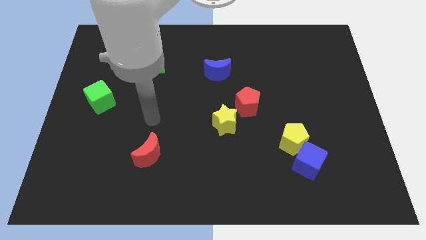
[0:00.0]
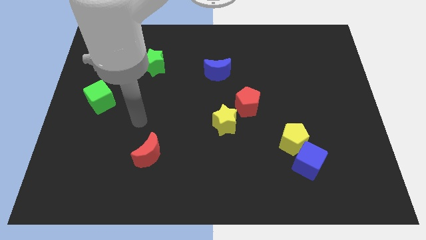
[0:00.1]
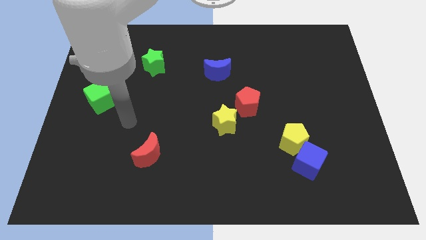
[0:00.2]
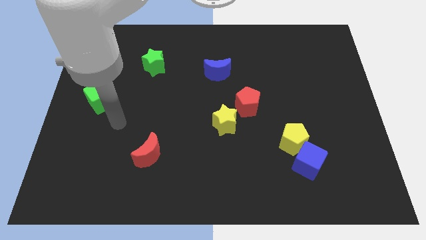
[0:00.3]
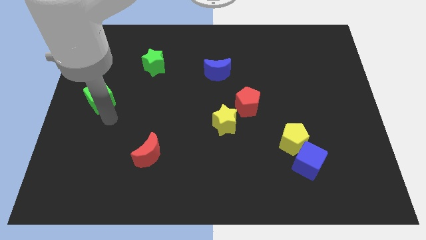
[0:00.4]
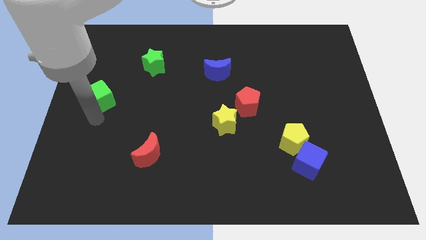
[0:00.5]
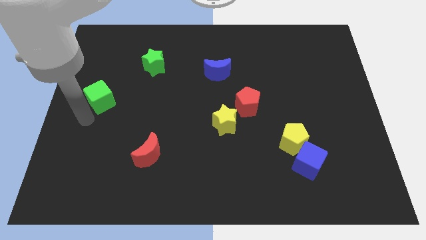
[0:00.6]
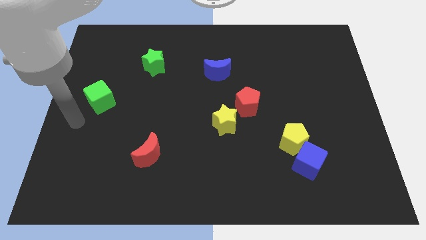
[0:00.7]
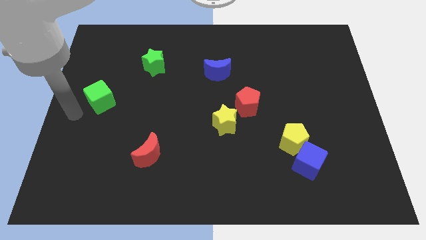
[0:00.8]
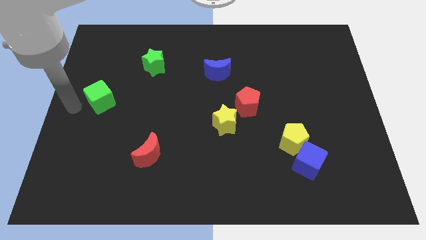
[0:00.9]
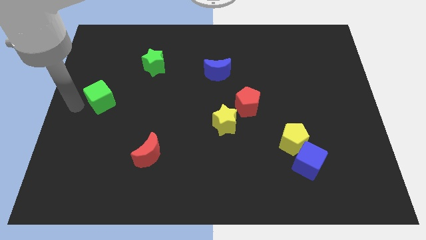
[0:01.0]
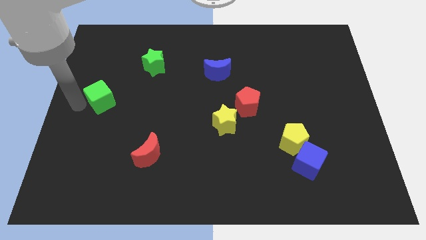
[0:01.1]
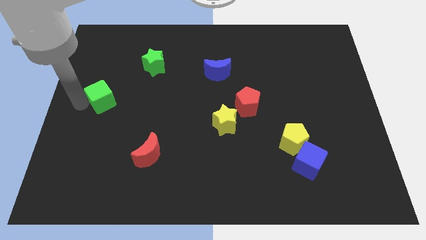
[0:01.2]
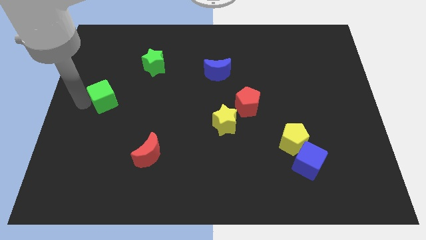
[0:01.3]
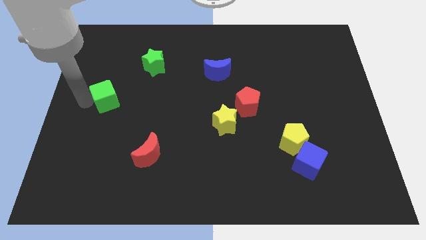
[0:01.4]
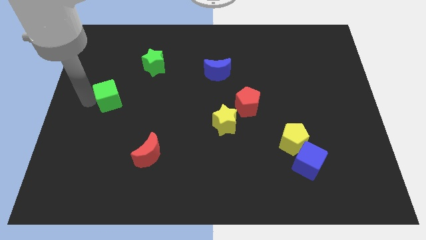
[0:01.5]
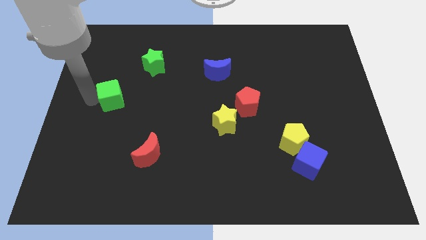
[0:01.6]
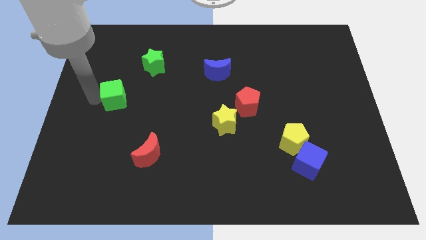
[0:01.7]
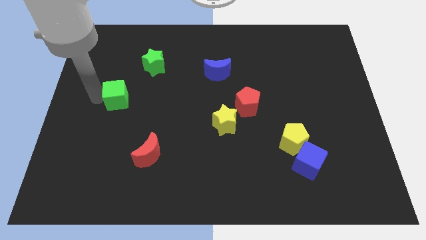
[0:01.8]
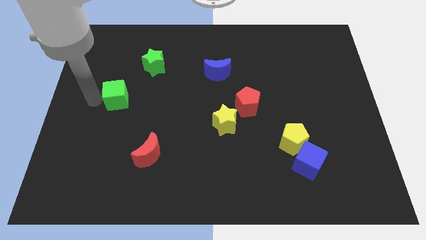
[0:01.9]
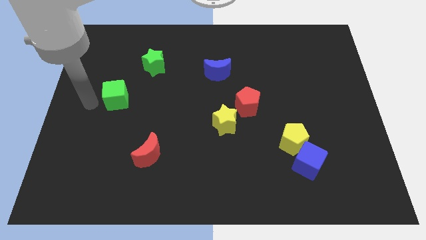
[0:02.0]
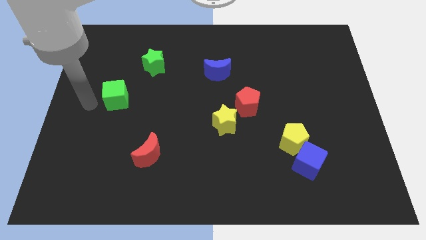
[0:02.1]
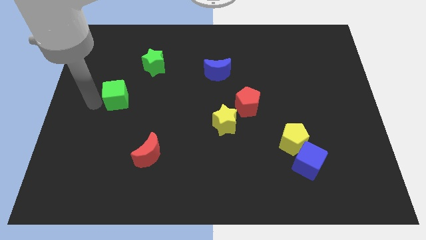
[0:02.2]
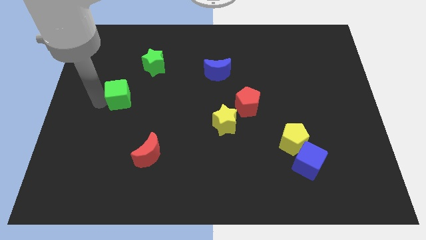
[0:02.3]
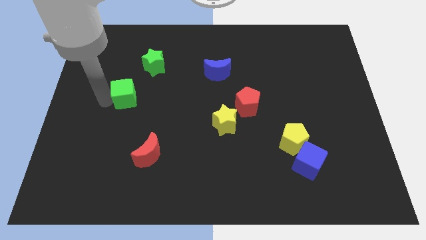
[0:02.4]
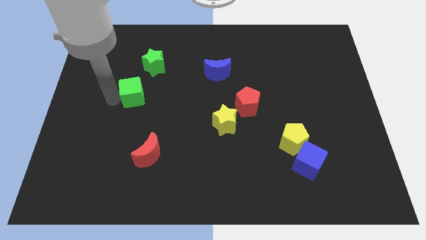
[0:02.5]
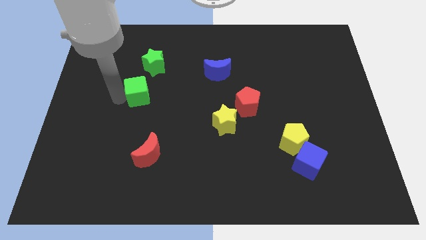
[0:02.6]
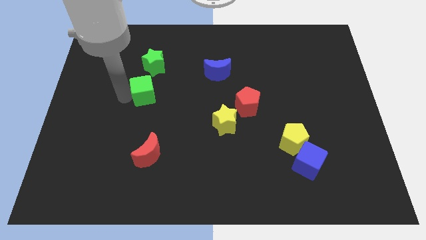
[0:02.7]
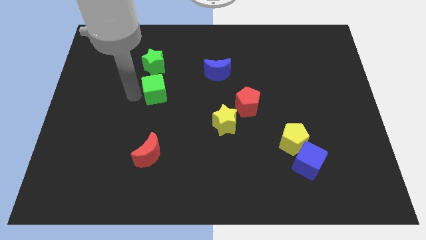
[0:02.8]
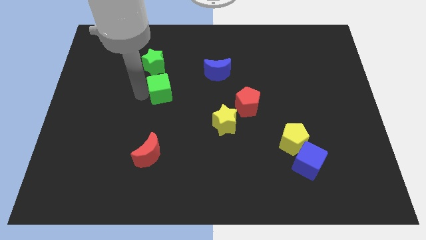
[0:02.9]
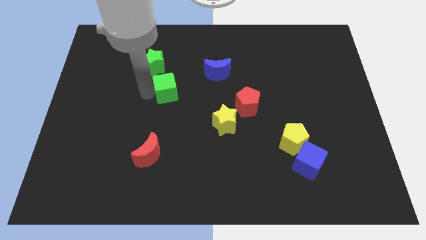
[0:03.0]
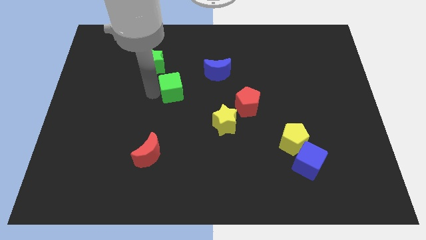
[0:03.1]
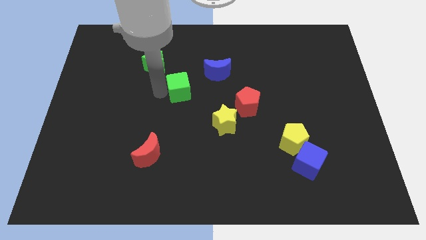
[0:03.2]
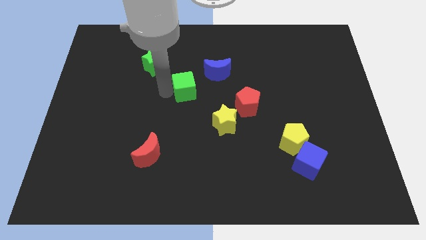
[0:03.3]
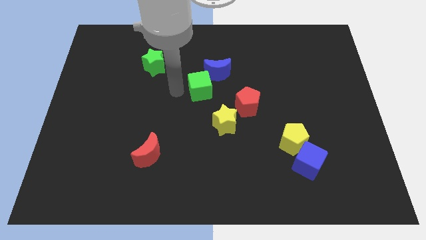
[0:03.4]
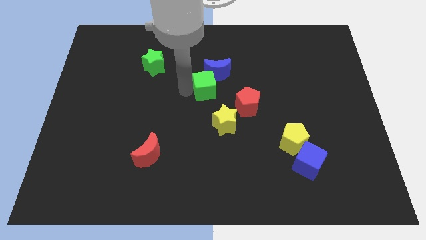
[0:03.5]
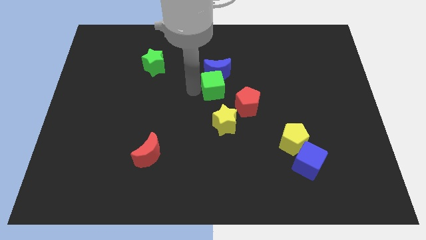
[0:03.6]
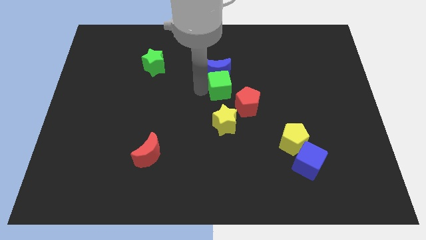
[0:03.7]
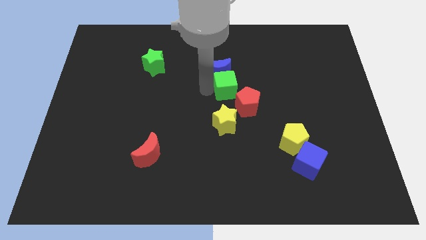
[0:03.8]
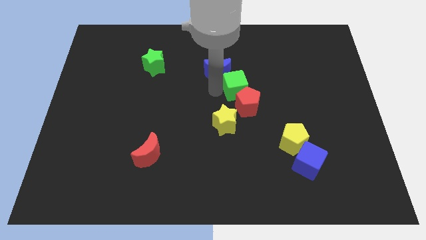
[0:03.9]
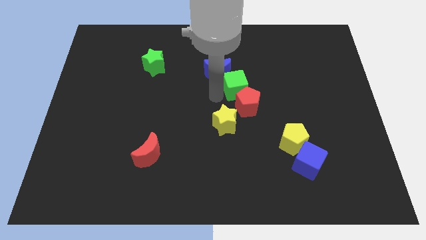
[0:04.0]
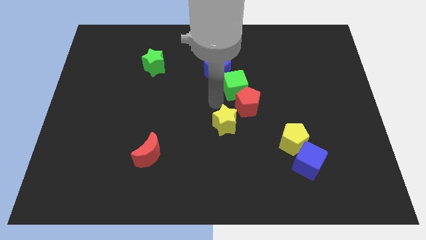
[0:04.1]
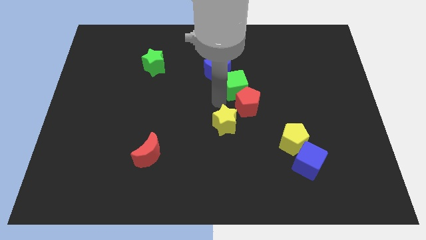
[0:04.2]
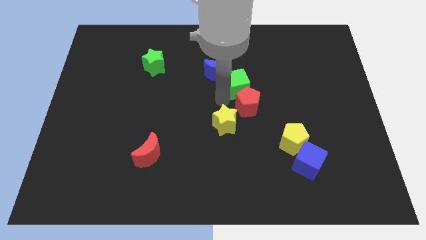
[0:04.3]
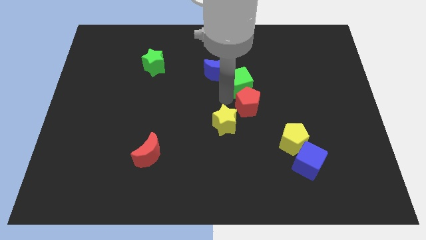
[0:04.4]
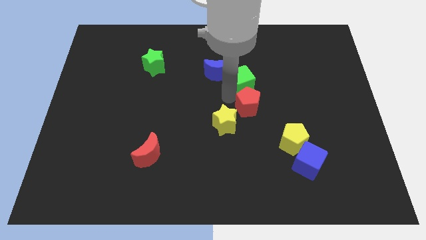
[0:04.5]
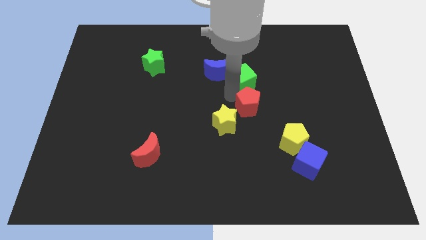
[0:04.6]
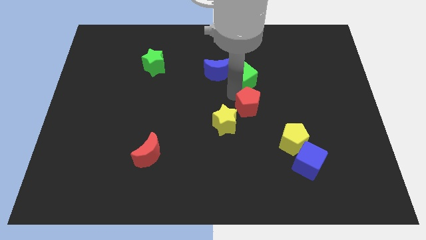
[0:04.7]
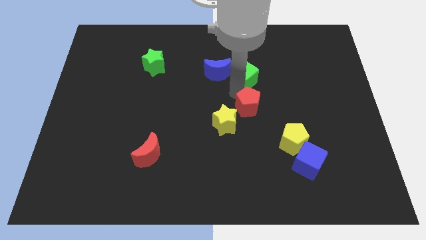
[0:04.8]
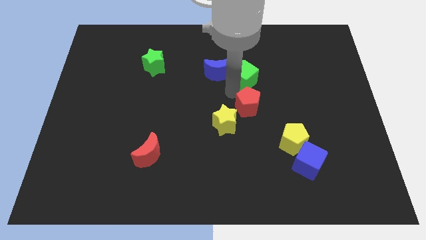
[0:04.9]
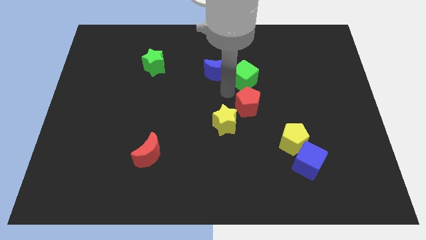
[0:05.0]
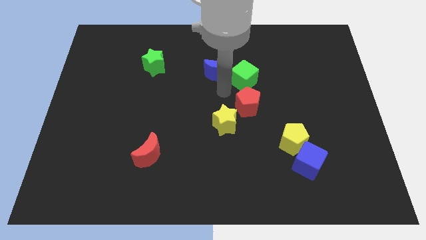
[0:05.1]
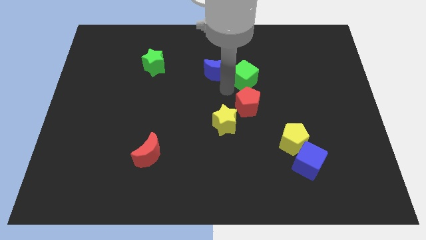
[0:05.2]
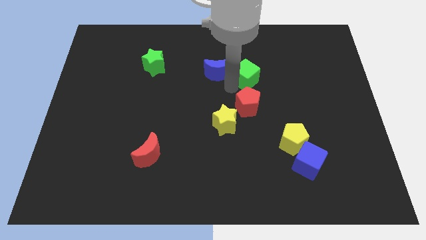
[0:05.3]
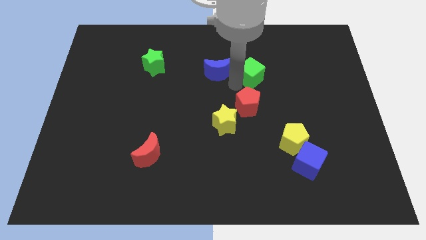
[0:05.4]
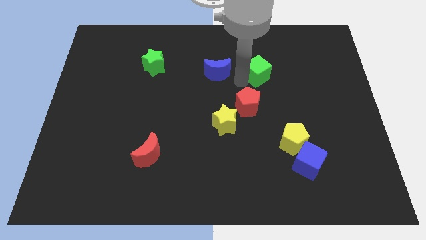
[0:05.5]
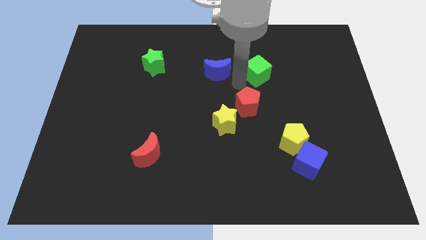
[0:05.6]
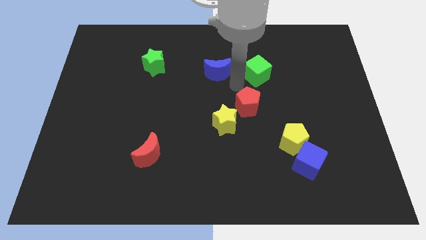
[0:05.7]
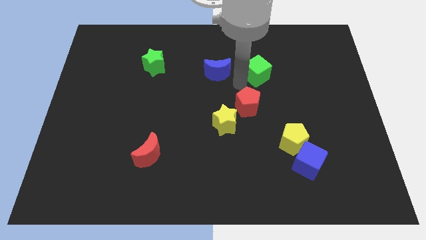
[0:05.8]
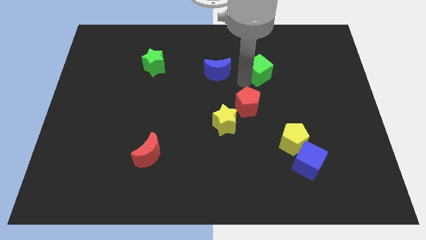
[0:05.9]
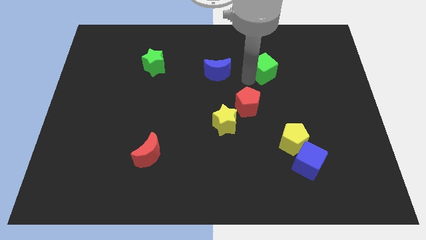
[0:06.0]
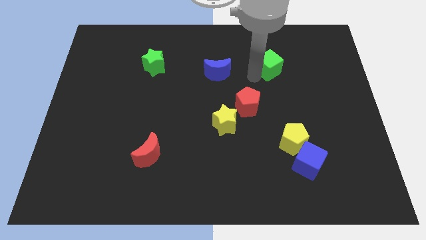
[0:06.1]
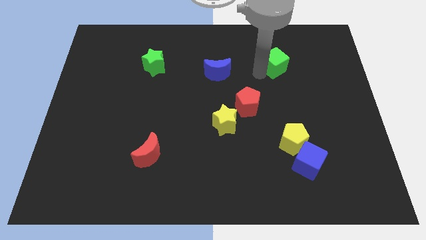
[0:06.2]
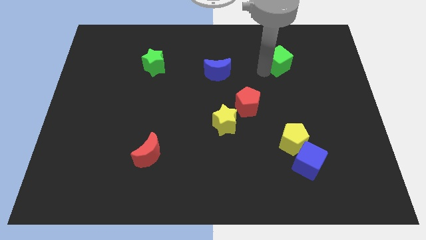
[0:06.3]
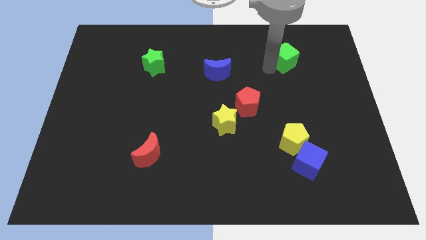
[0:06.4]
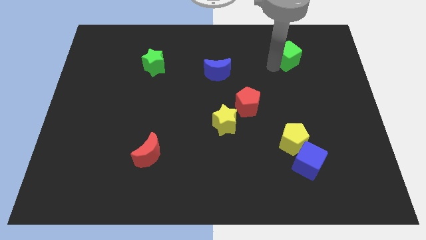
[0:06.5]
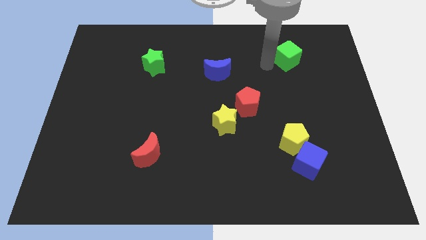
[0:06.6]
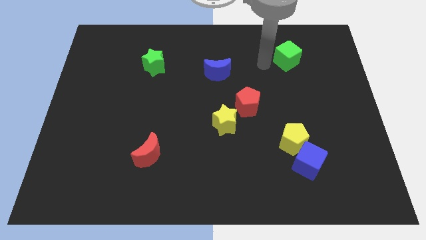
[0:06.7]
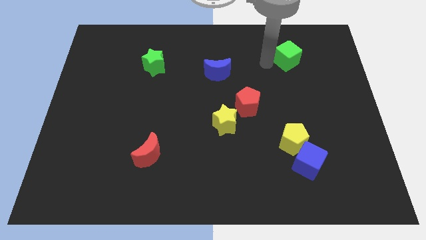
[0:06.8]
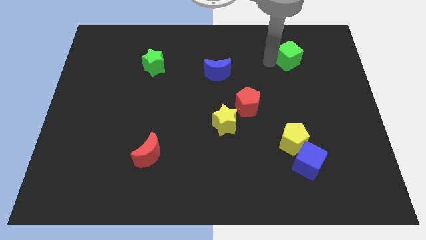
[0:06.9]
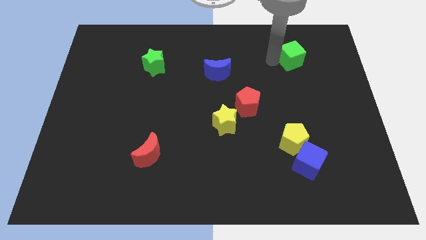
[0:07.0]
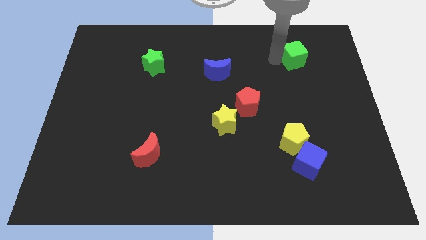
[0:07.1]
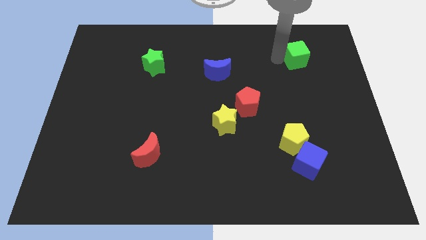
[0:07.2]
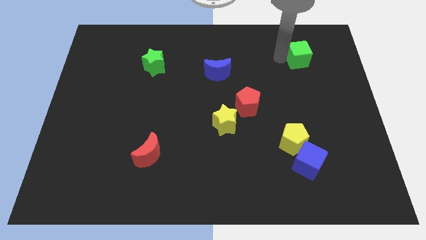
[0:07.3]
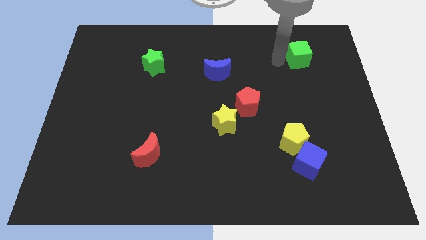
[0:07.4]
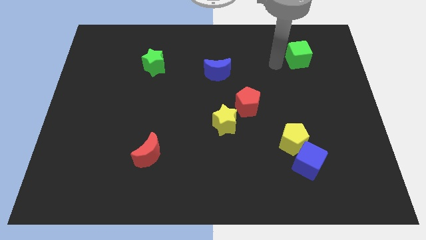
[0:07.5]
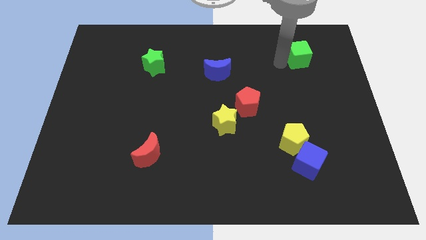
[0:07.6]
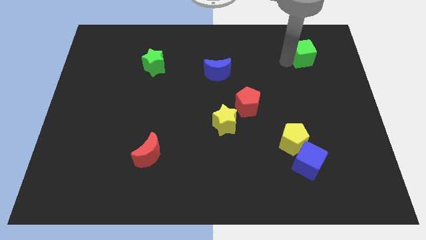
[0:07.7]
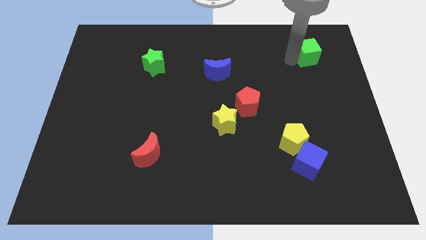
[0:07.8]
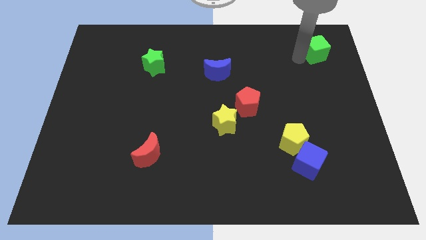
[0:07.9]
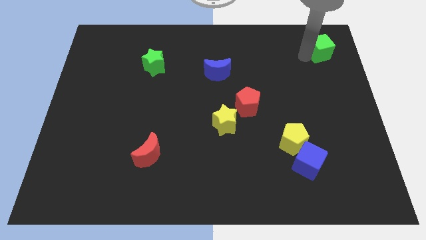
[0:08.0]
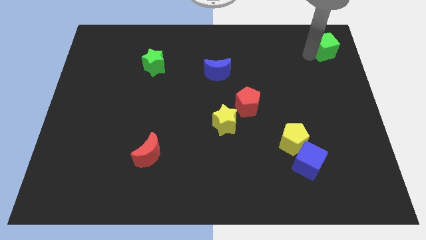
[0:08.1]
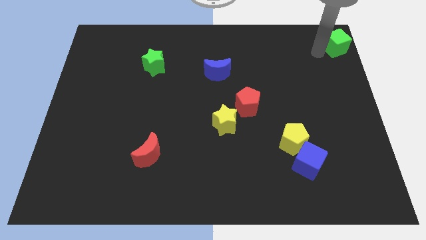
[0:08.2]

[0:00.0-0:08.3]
move the green cube to the top right of the board
